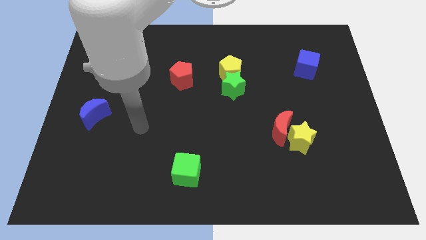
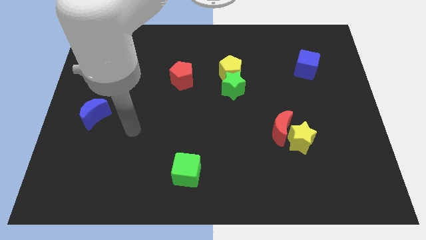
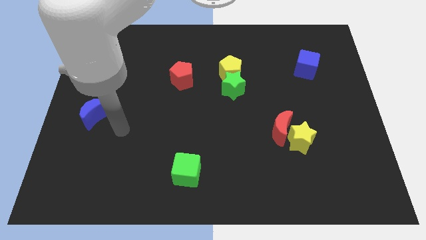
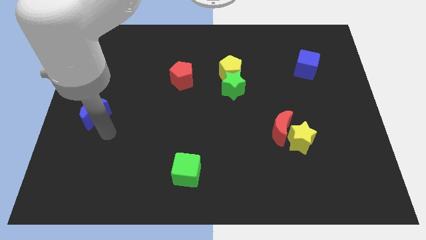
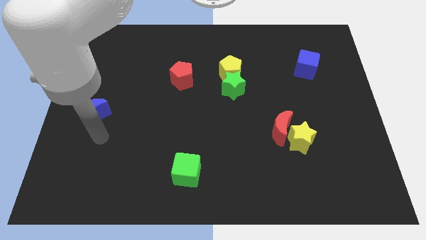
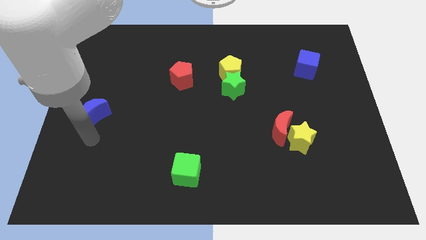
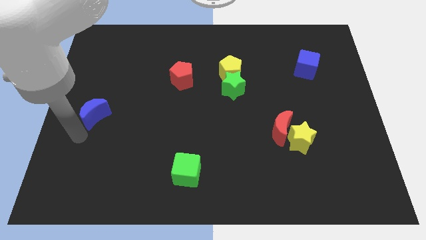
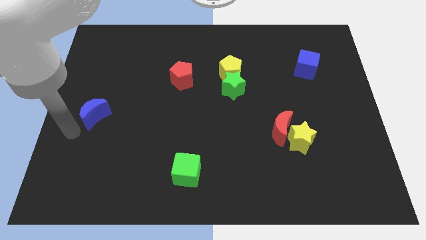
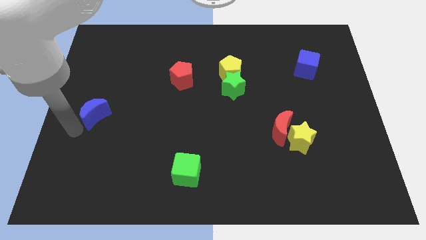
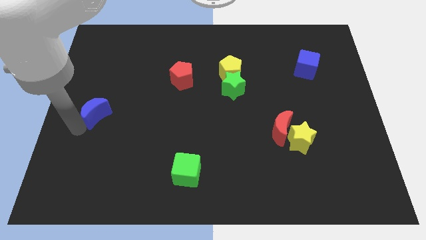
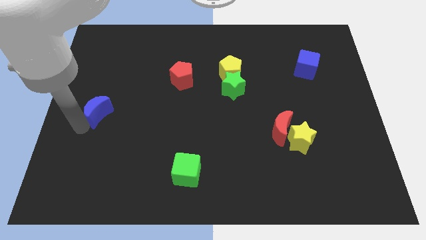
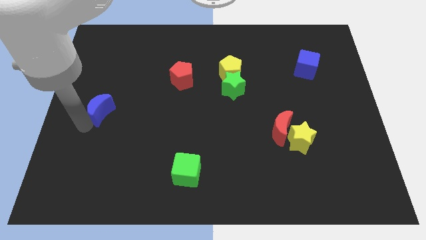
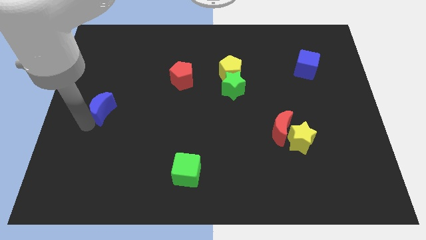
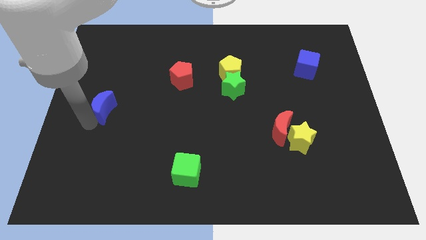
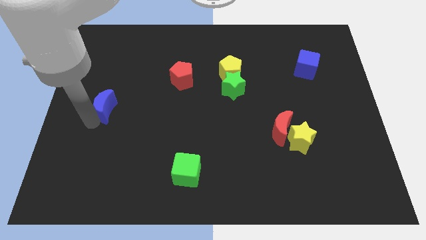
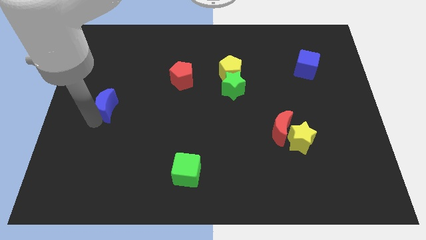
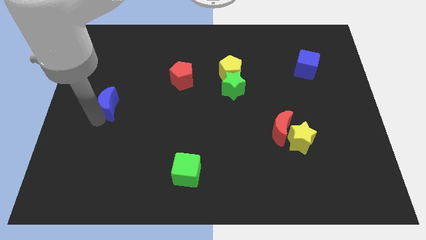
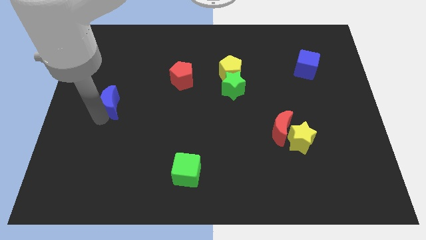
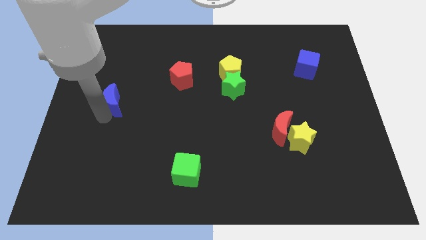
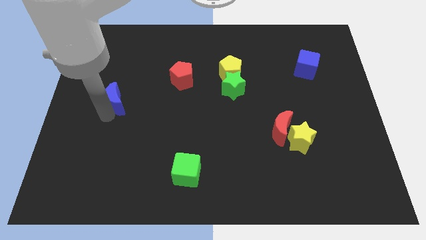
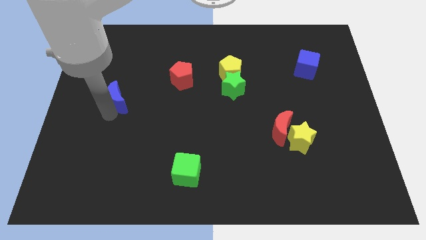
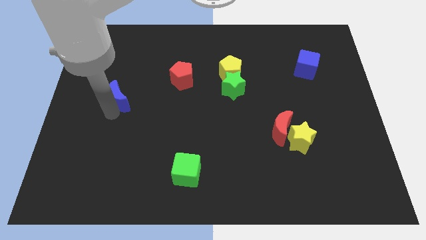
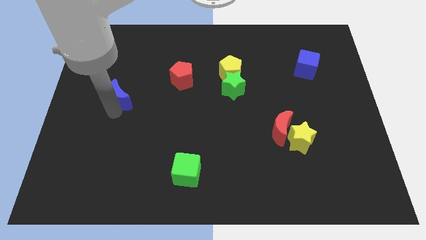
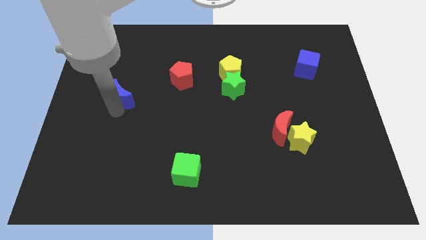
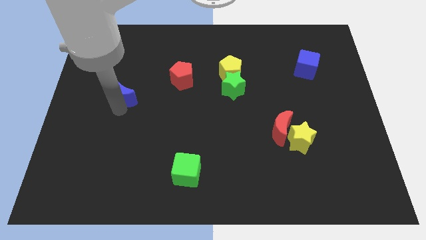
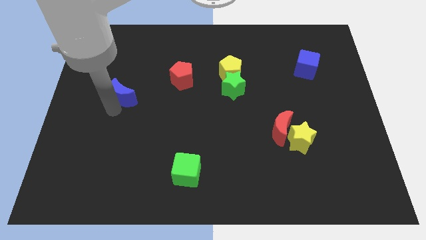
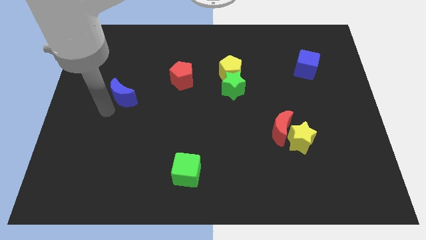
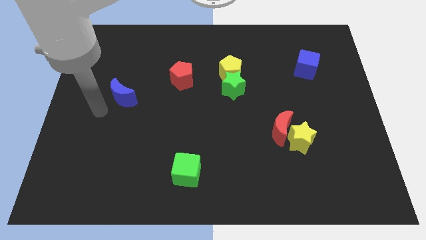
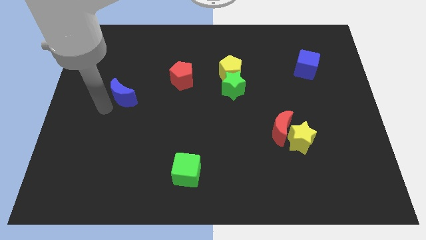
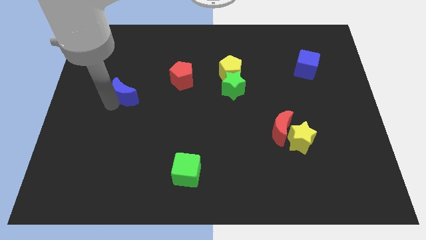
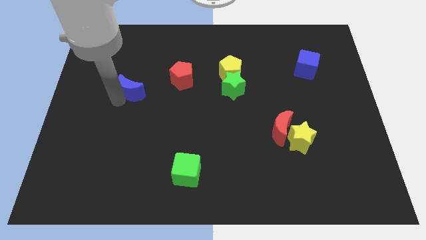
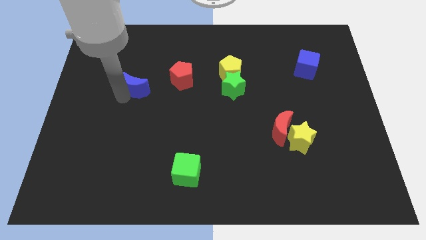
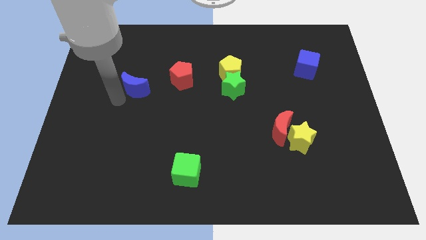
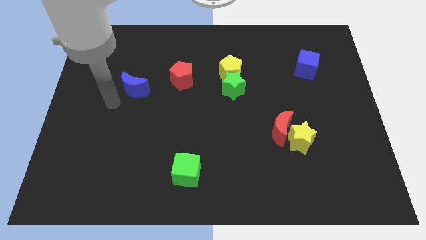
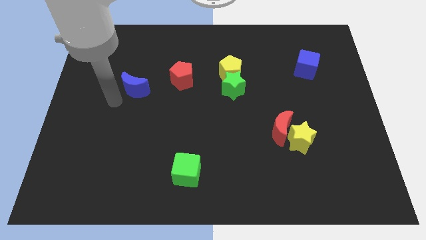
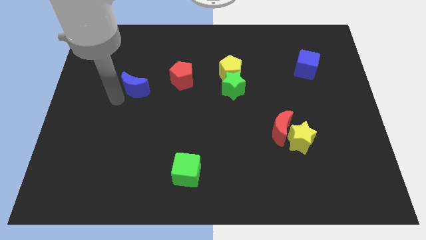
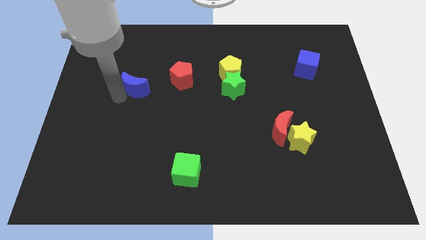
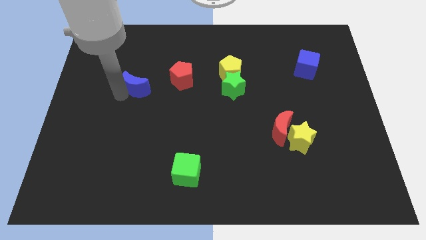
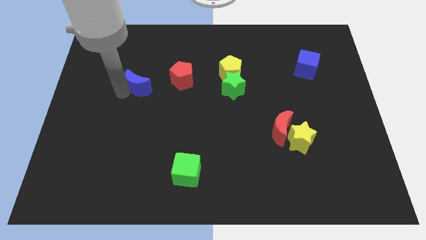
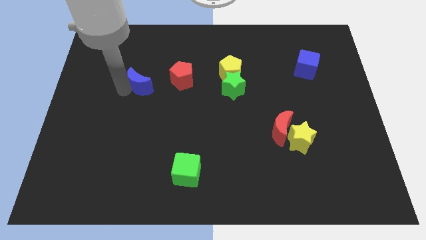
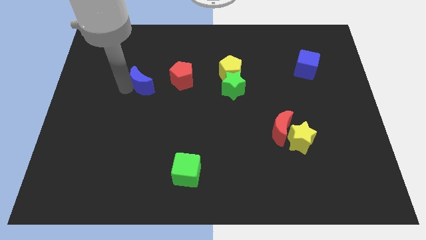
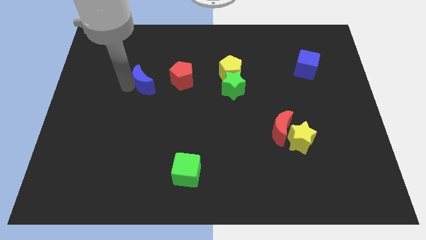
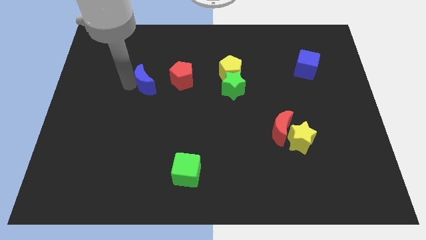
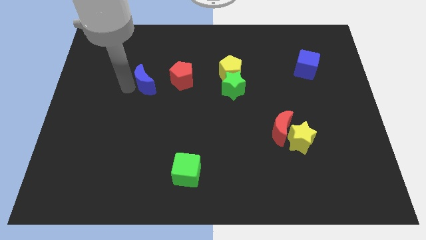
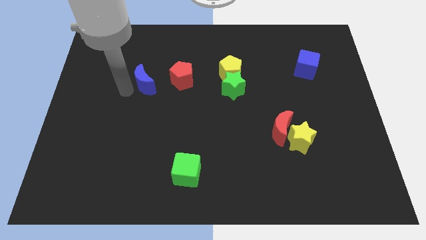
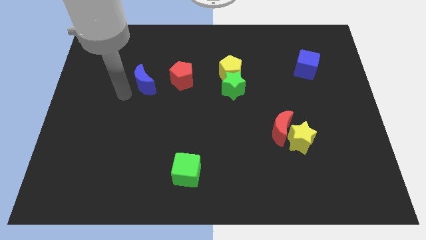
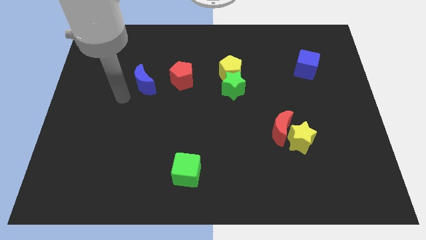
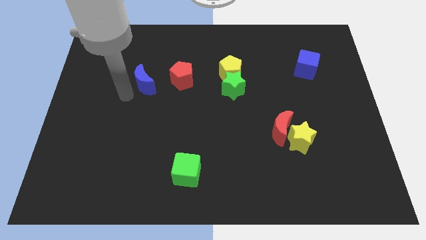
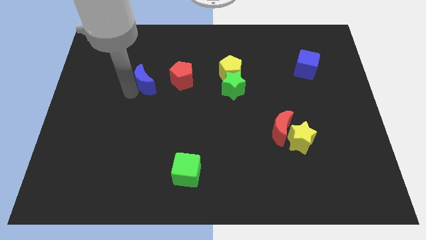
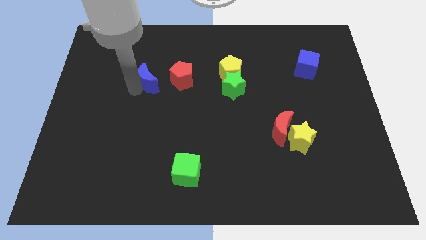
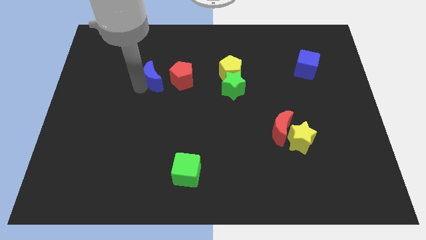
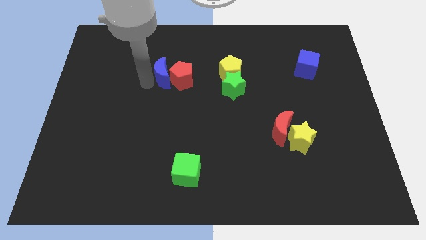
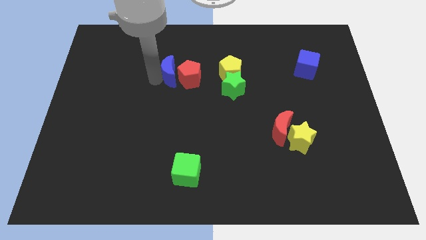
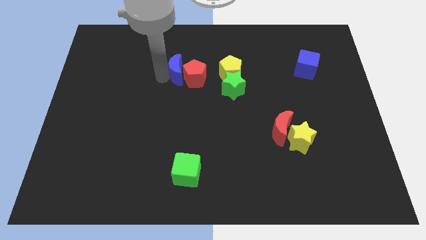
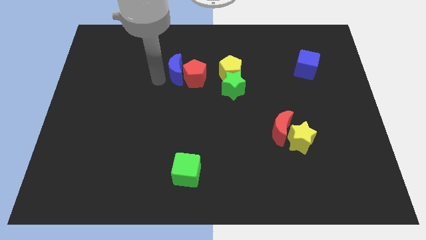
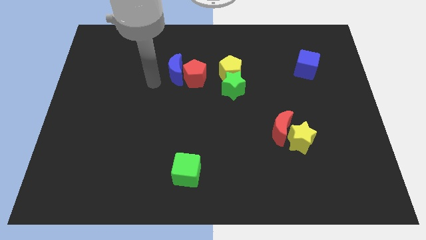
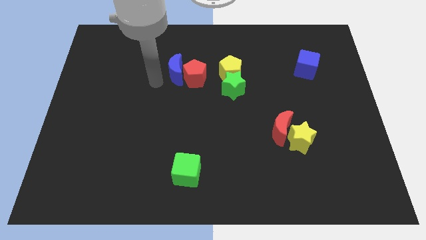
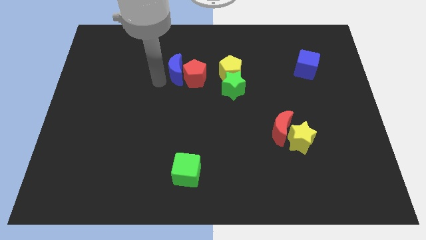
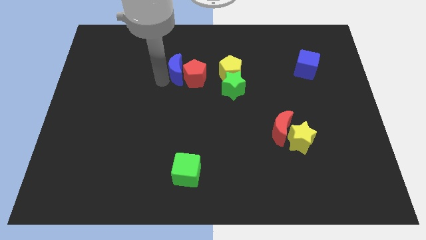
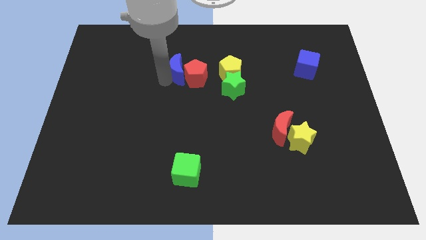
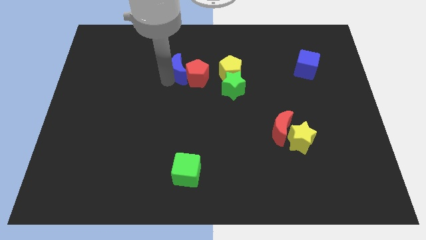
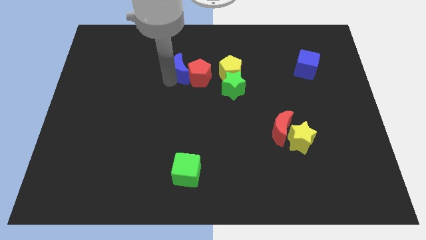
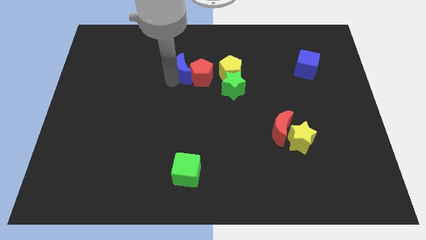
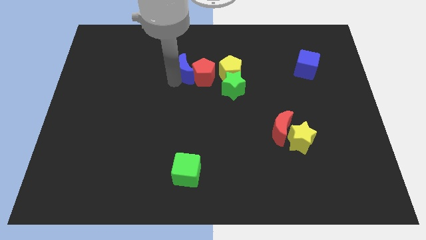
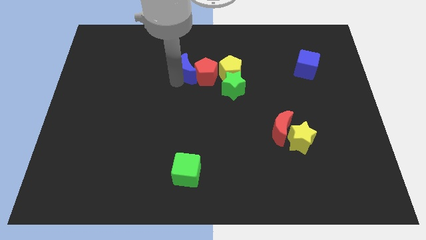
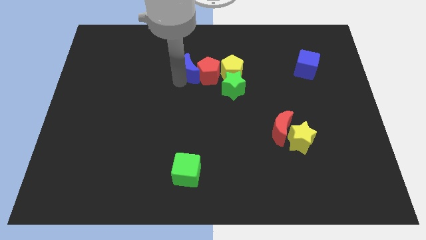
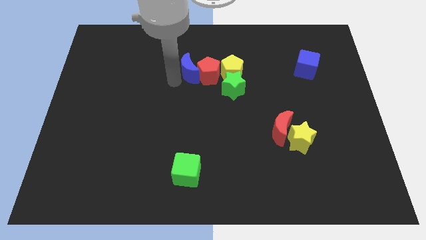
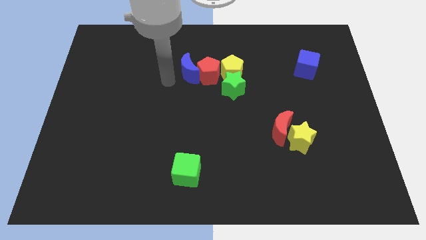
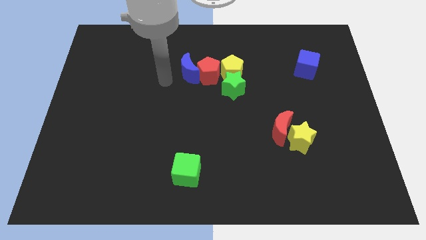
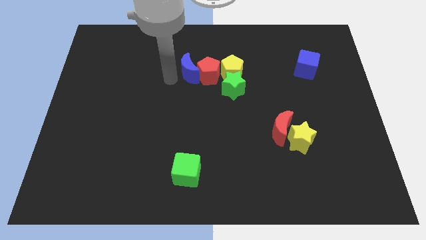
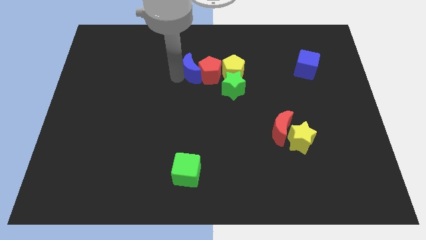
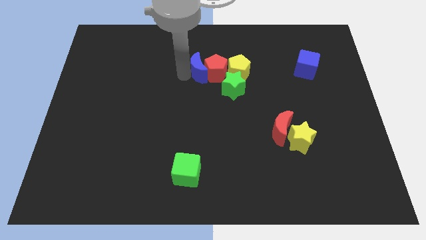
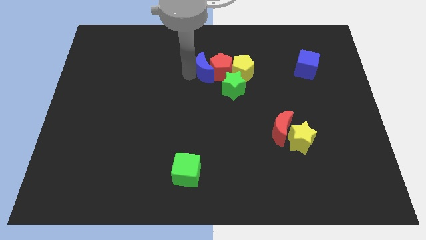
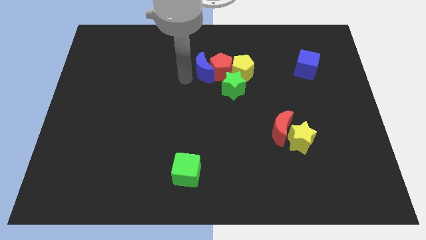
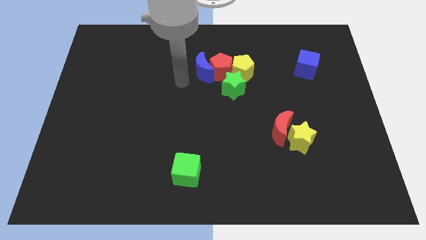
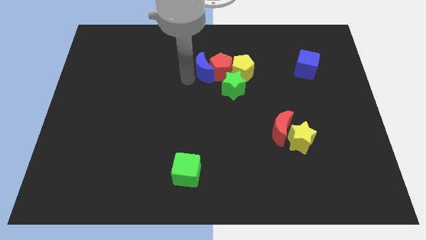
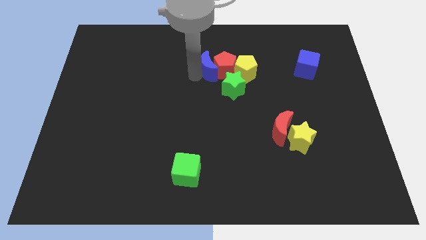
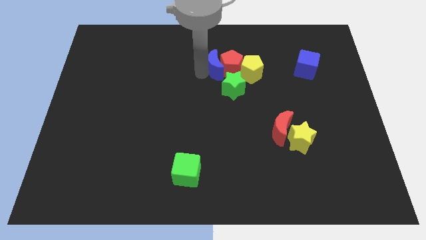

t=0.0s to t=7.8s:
put the blue moon to the top of the green star
